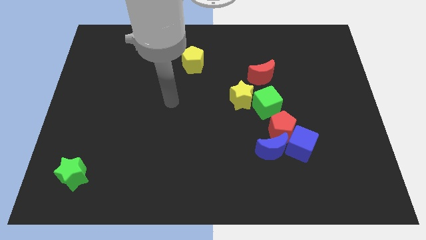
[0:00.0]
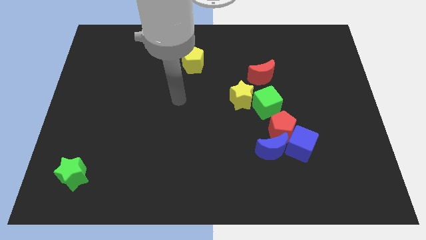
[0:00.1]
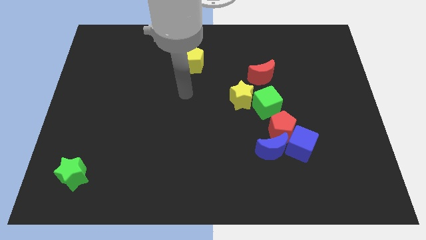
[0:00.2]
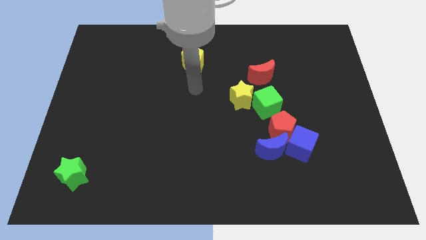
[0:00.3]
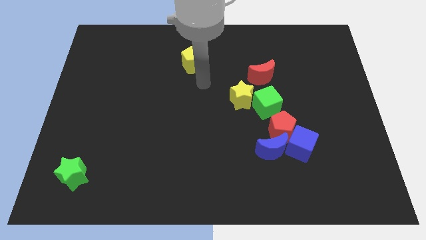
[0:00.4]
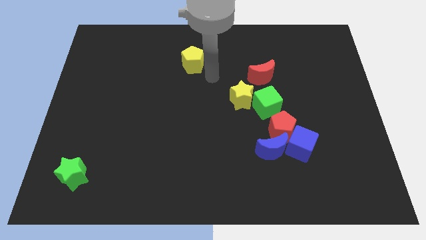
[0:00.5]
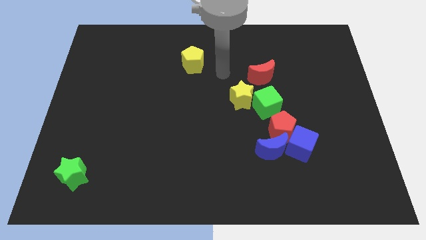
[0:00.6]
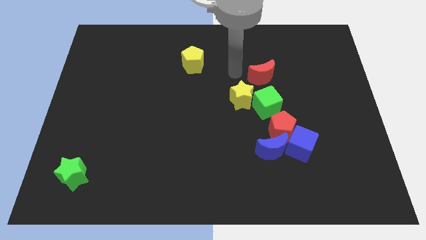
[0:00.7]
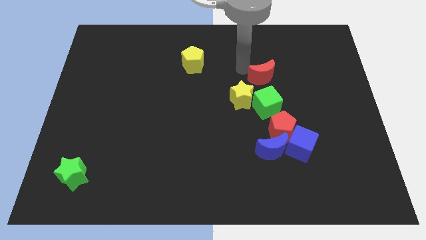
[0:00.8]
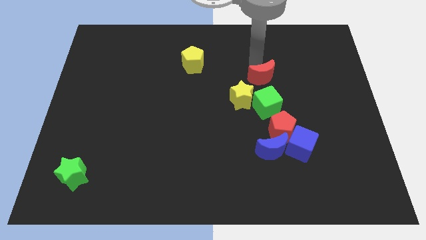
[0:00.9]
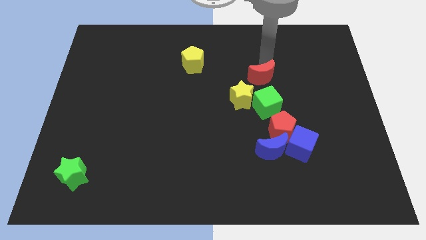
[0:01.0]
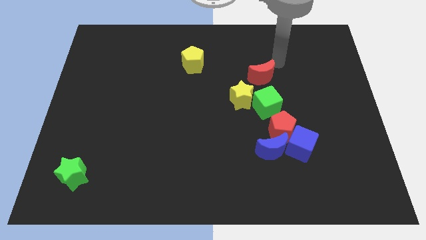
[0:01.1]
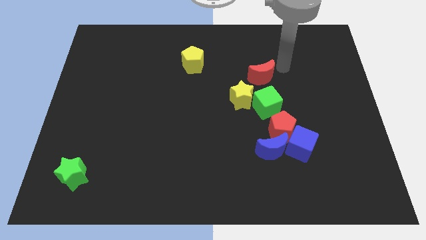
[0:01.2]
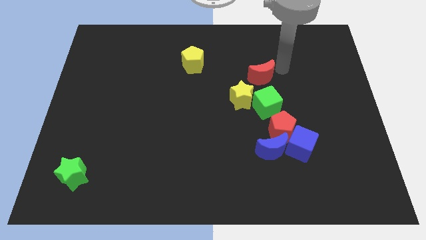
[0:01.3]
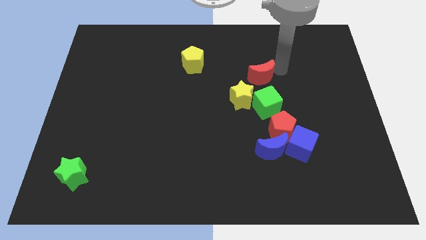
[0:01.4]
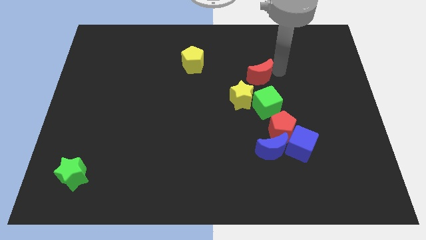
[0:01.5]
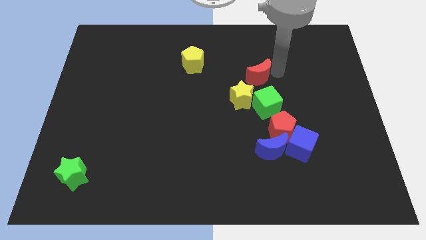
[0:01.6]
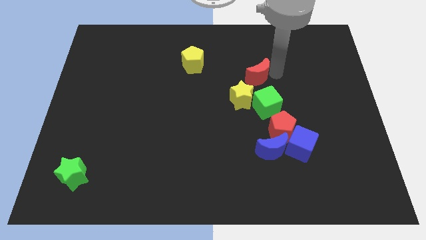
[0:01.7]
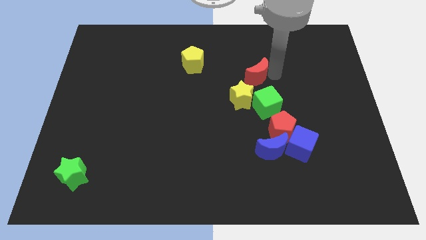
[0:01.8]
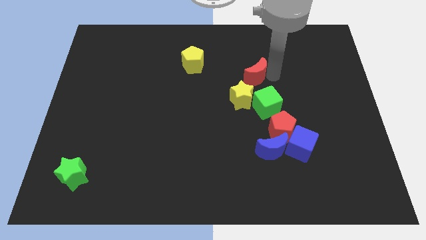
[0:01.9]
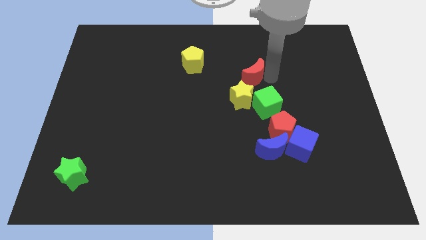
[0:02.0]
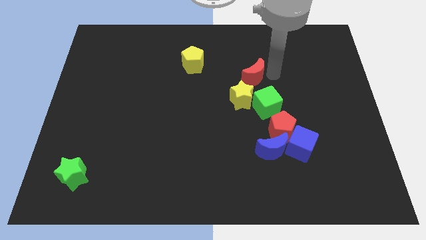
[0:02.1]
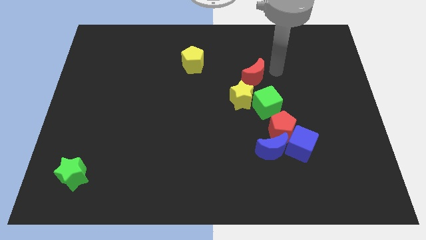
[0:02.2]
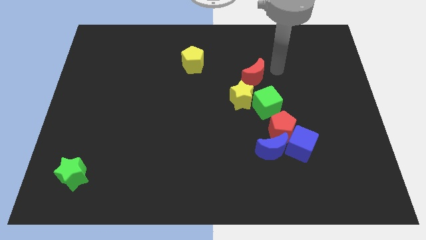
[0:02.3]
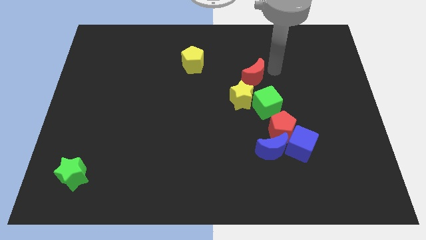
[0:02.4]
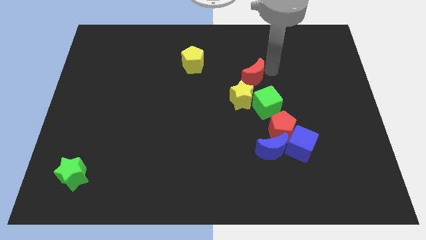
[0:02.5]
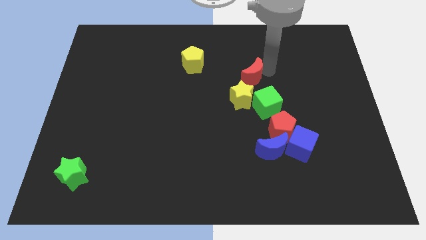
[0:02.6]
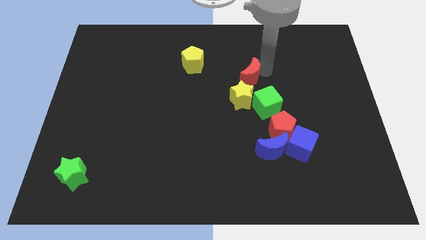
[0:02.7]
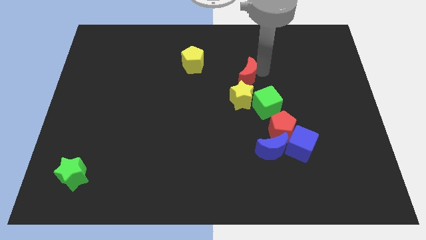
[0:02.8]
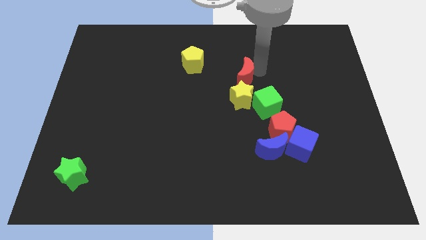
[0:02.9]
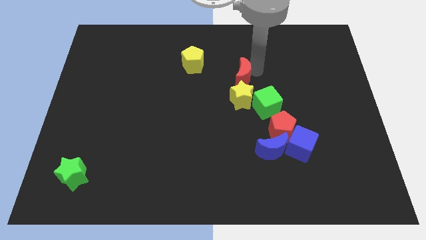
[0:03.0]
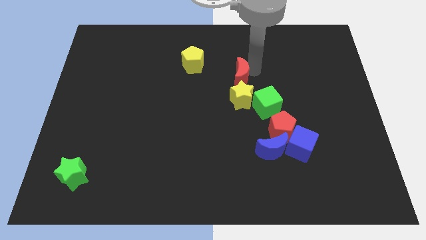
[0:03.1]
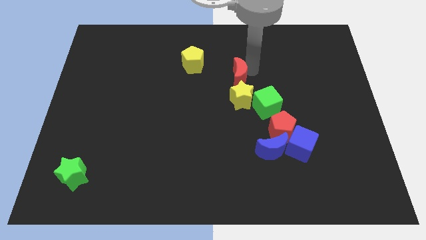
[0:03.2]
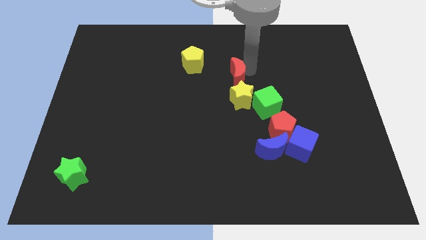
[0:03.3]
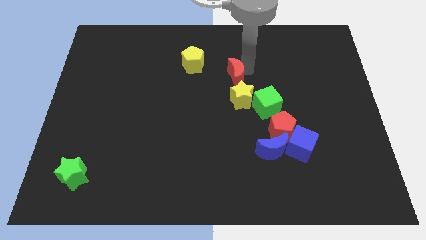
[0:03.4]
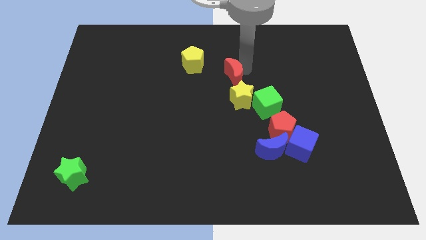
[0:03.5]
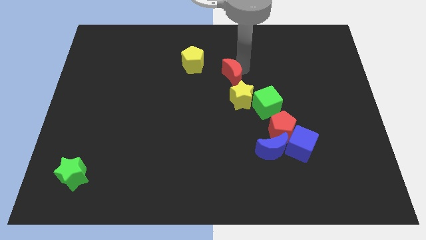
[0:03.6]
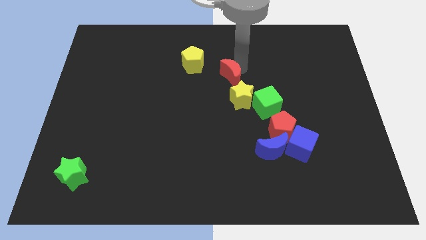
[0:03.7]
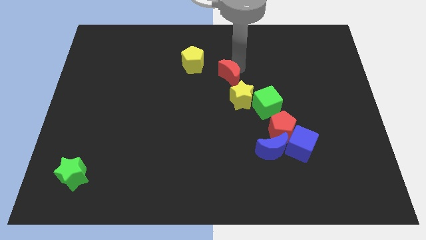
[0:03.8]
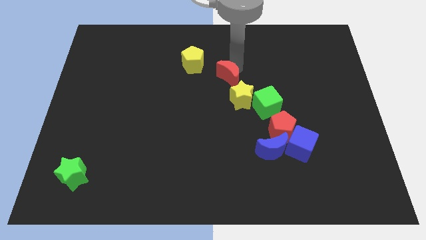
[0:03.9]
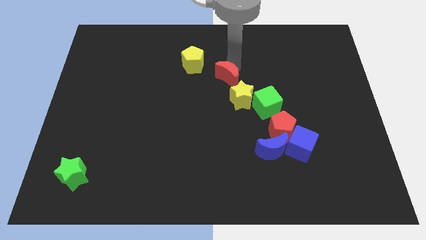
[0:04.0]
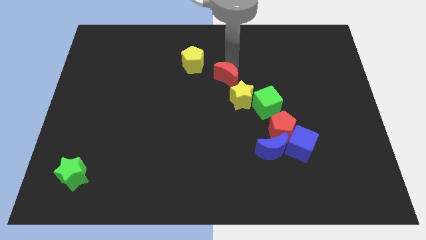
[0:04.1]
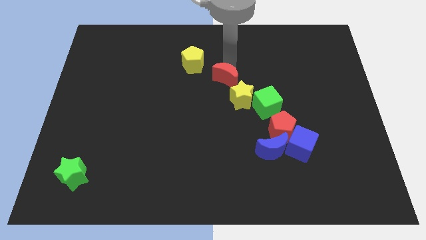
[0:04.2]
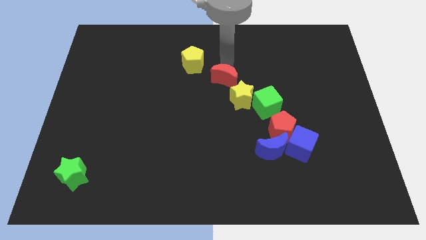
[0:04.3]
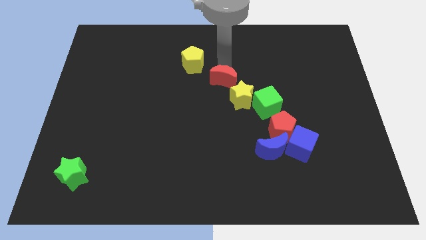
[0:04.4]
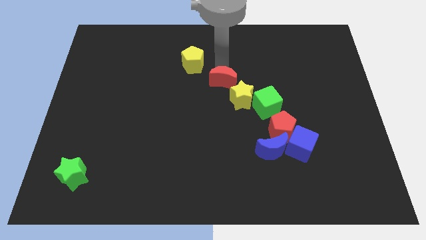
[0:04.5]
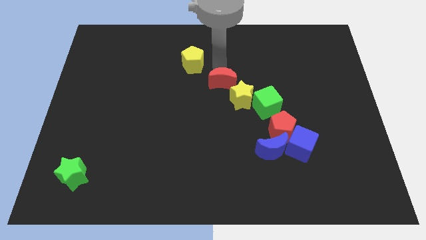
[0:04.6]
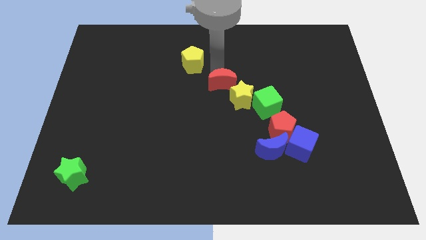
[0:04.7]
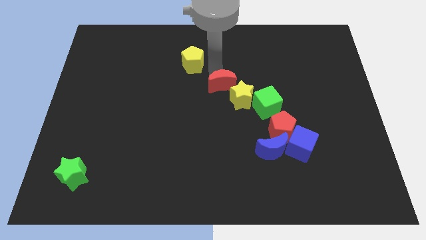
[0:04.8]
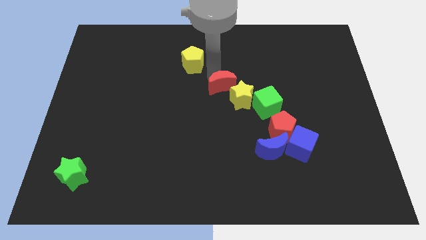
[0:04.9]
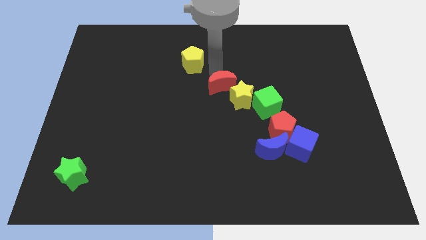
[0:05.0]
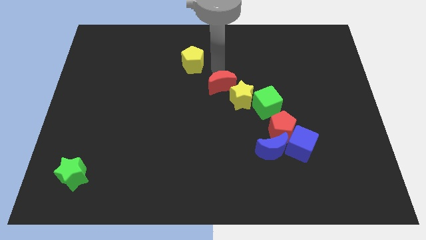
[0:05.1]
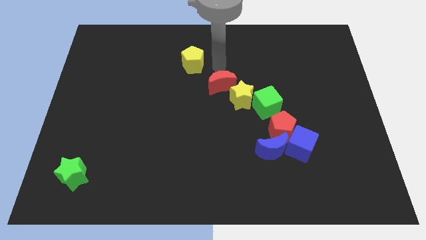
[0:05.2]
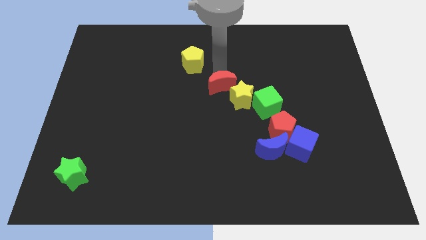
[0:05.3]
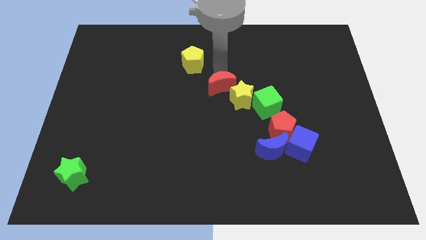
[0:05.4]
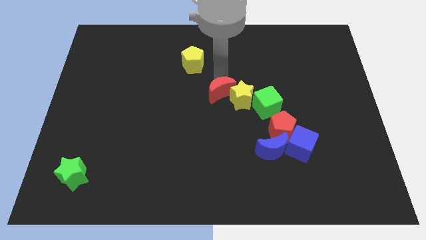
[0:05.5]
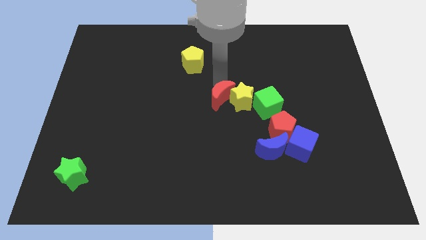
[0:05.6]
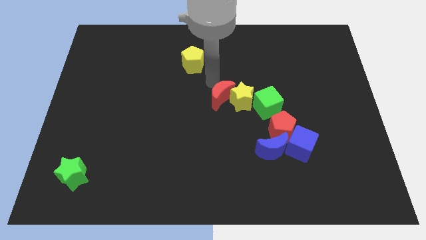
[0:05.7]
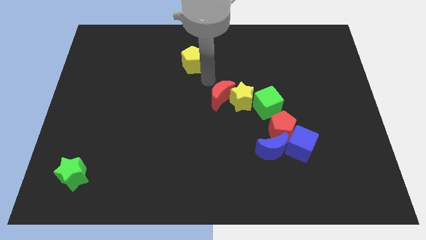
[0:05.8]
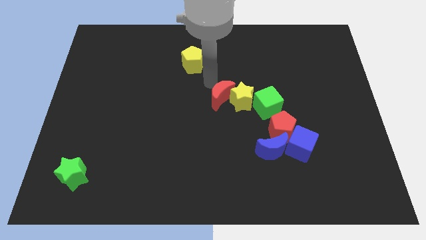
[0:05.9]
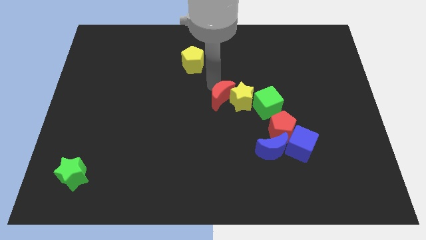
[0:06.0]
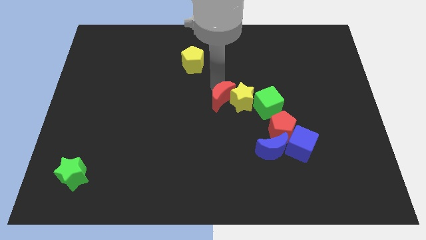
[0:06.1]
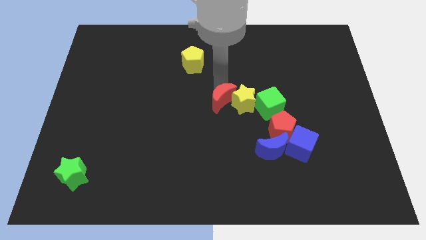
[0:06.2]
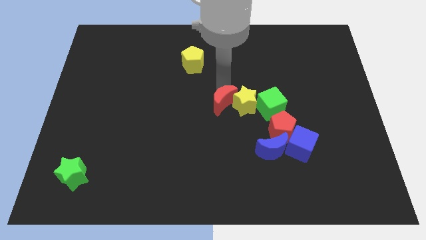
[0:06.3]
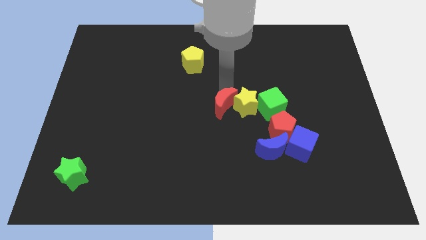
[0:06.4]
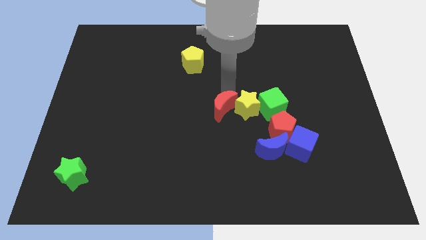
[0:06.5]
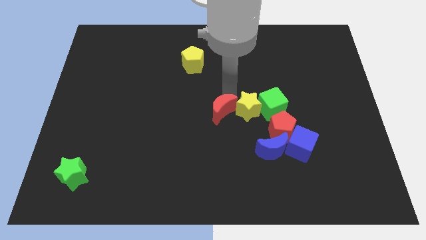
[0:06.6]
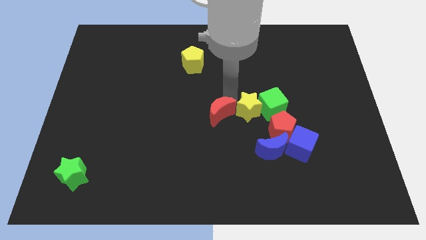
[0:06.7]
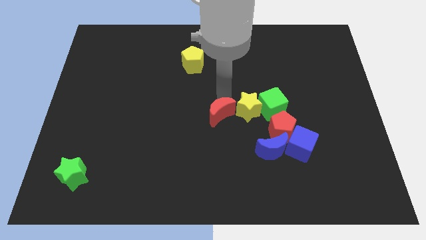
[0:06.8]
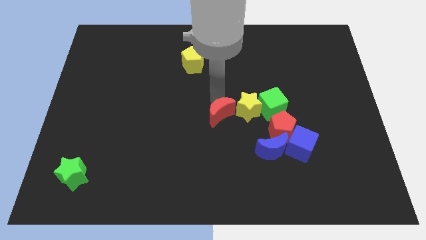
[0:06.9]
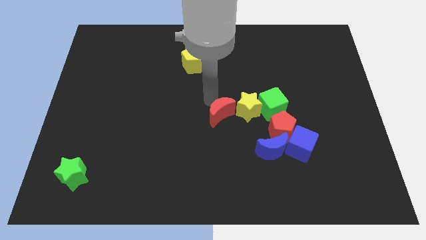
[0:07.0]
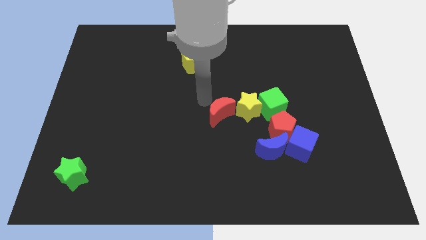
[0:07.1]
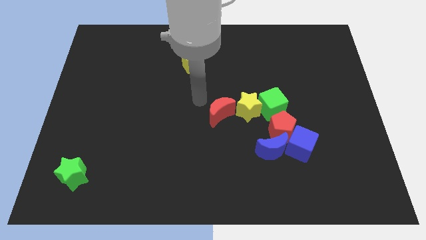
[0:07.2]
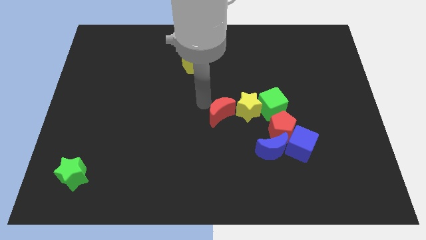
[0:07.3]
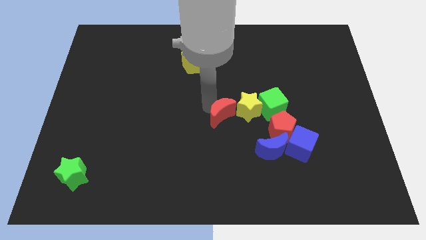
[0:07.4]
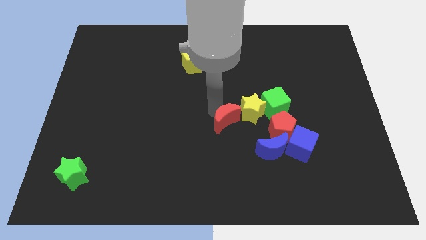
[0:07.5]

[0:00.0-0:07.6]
move the red moon to the top left side of the blue moon

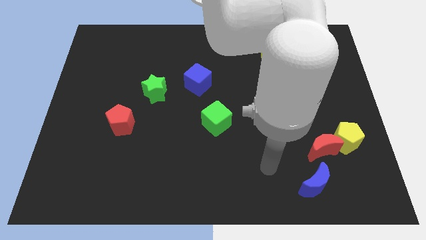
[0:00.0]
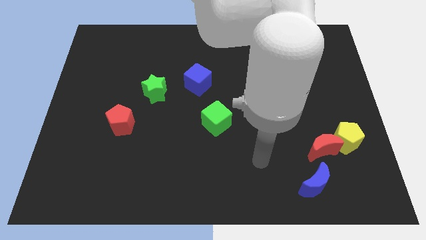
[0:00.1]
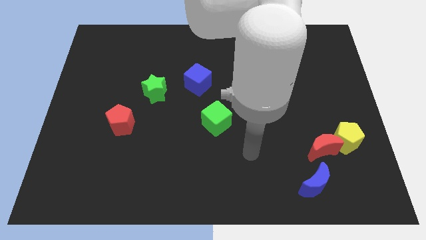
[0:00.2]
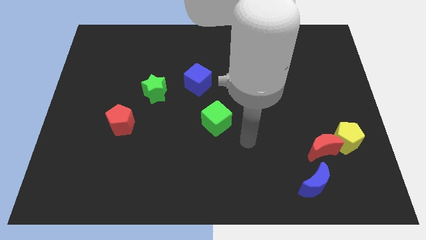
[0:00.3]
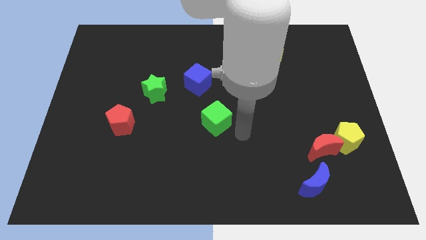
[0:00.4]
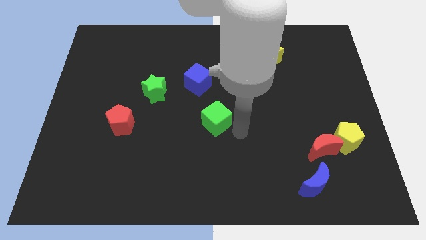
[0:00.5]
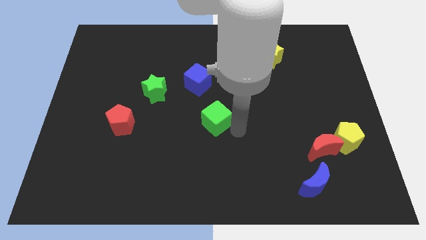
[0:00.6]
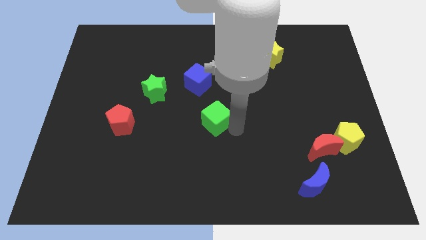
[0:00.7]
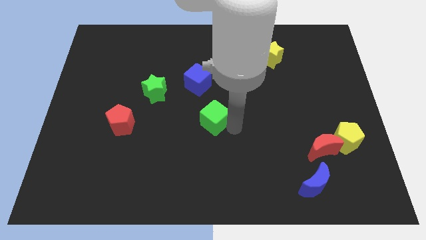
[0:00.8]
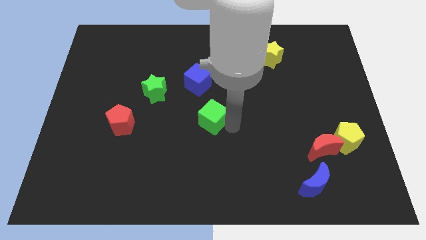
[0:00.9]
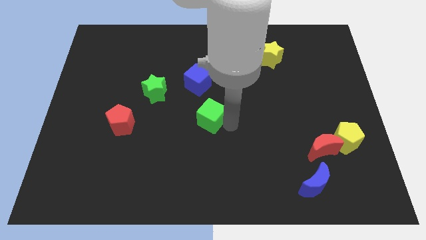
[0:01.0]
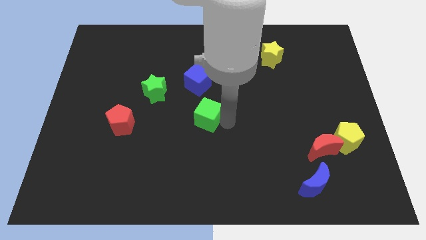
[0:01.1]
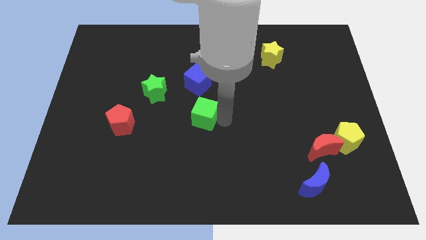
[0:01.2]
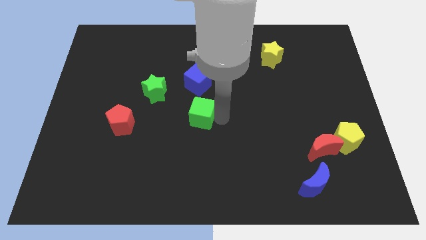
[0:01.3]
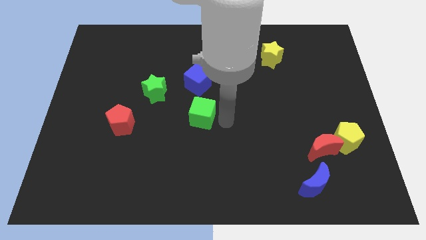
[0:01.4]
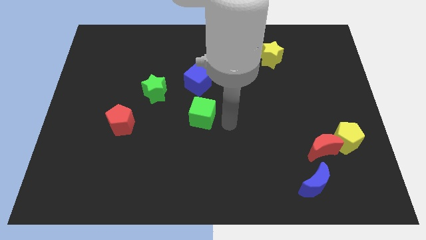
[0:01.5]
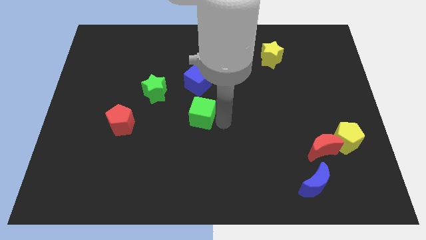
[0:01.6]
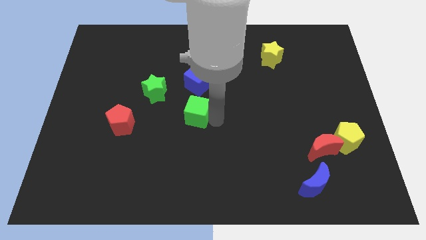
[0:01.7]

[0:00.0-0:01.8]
push the green cube diagonally down and to the right of the green star
